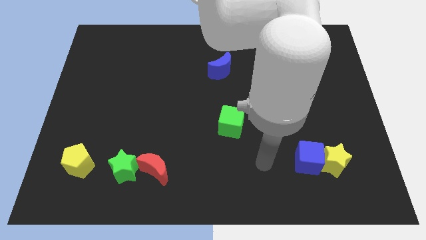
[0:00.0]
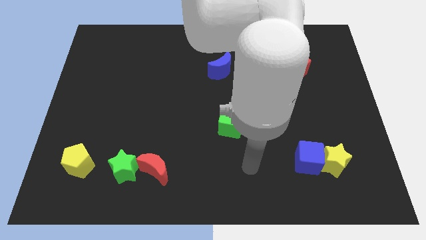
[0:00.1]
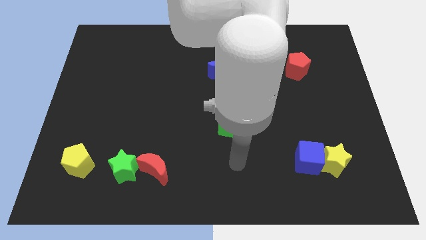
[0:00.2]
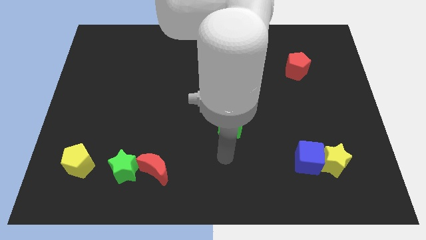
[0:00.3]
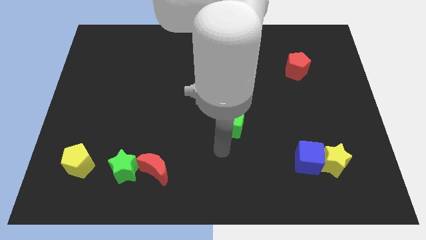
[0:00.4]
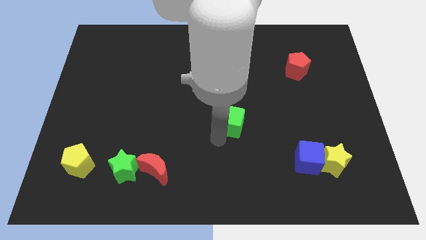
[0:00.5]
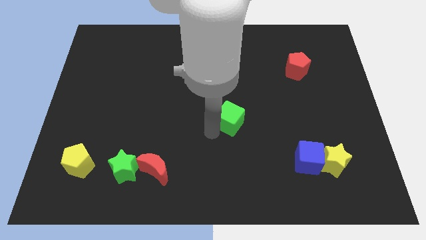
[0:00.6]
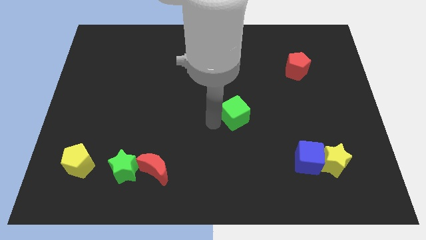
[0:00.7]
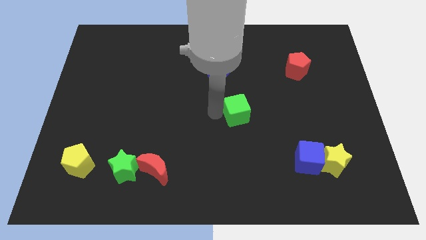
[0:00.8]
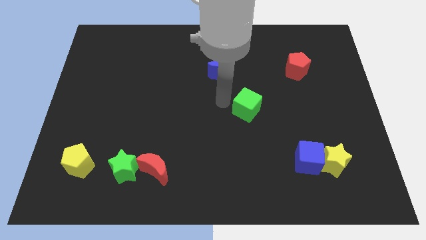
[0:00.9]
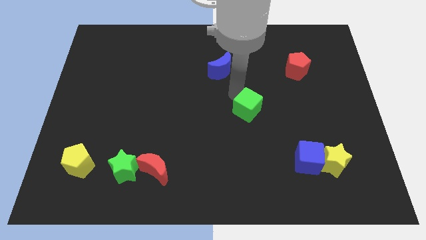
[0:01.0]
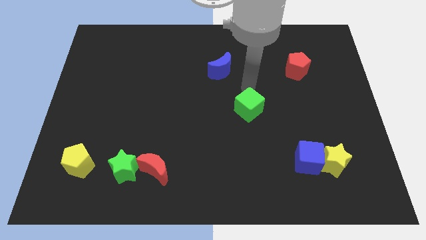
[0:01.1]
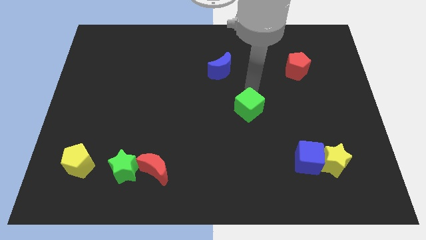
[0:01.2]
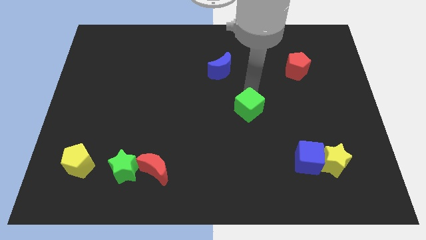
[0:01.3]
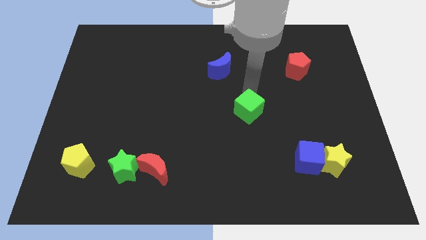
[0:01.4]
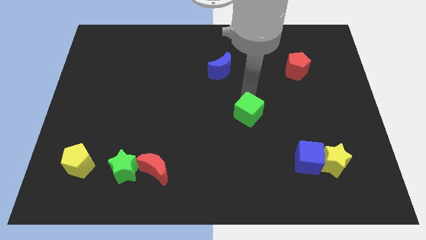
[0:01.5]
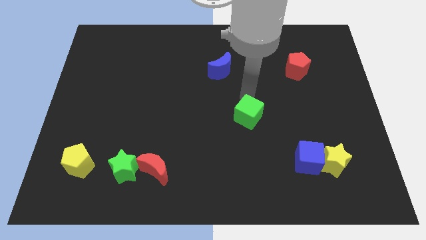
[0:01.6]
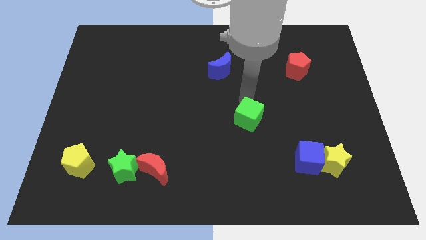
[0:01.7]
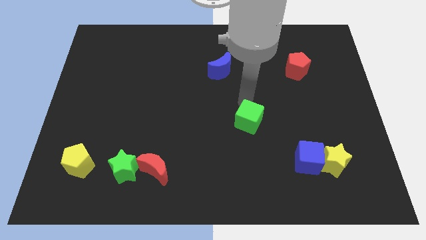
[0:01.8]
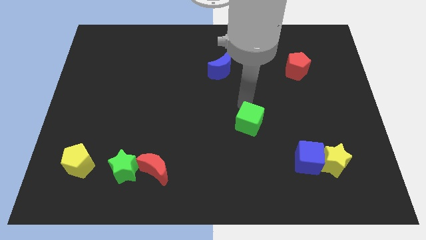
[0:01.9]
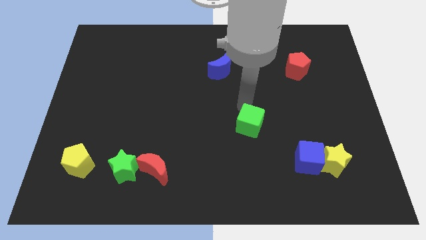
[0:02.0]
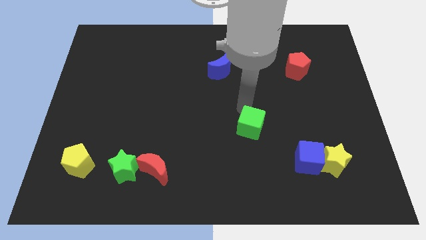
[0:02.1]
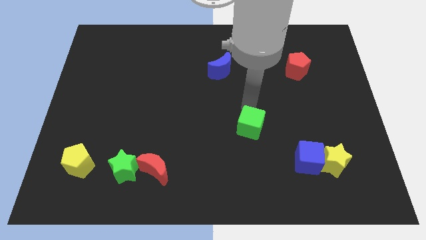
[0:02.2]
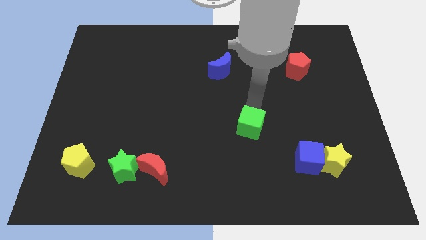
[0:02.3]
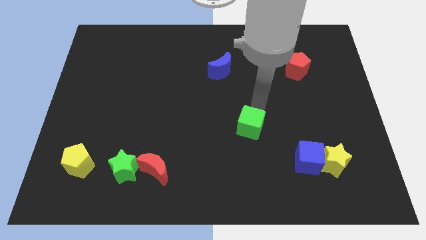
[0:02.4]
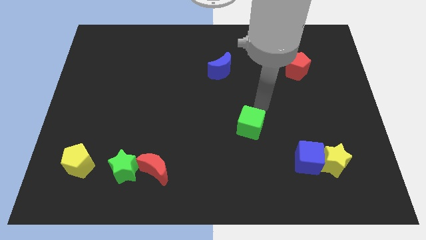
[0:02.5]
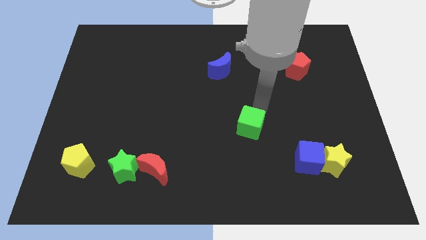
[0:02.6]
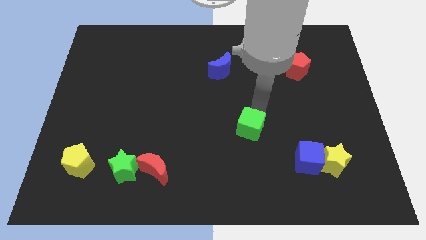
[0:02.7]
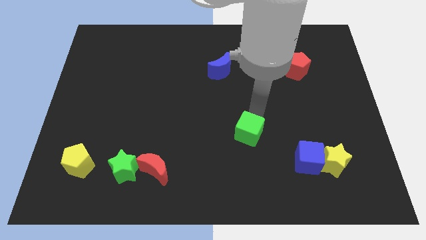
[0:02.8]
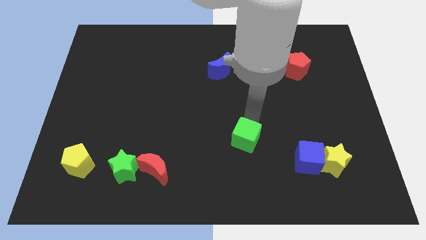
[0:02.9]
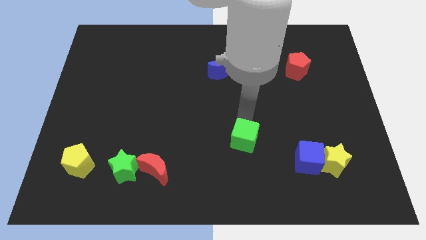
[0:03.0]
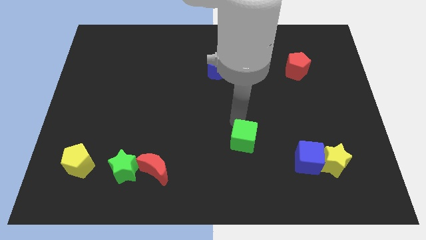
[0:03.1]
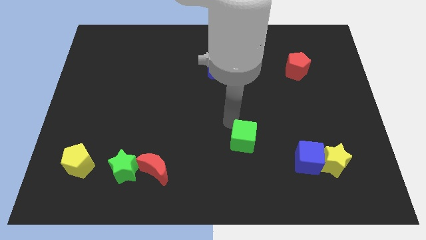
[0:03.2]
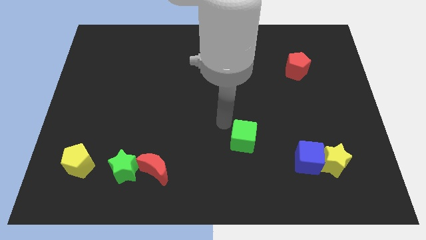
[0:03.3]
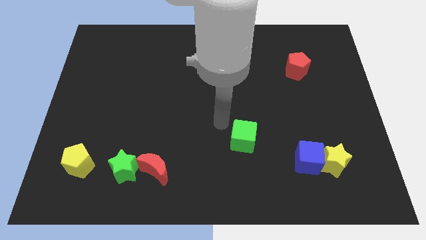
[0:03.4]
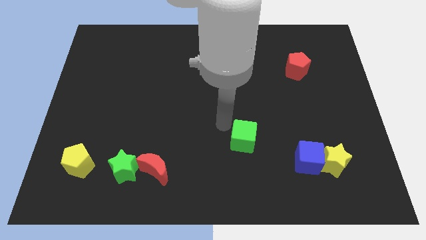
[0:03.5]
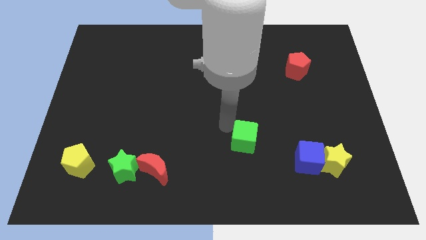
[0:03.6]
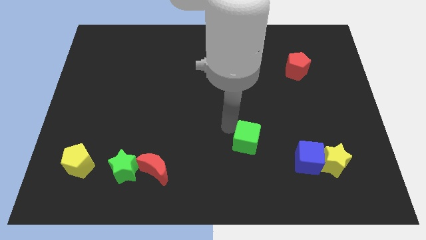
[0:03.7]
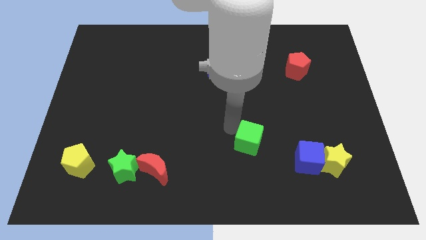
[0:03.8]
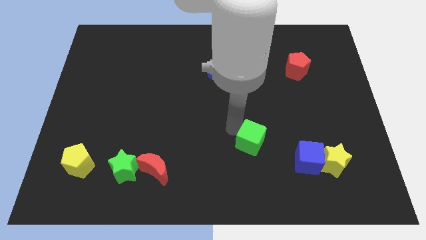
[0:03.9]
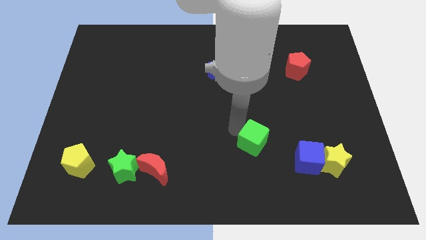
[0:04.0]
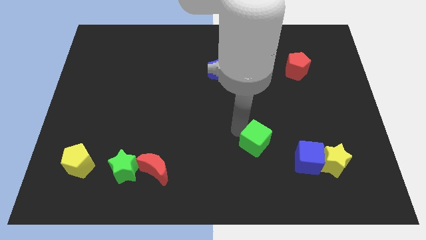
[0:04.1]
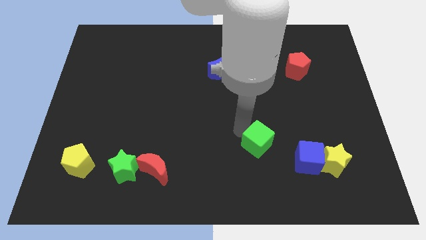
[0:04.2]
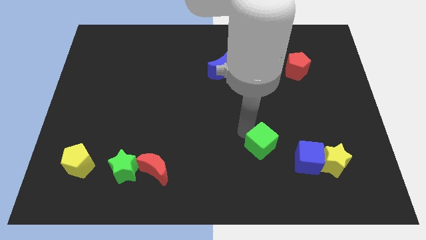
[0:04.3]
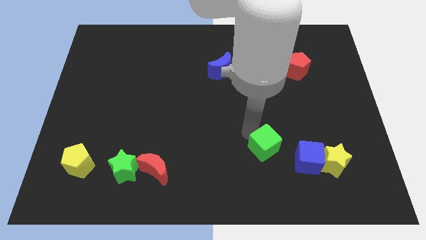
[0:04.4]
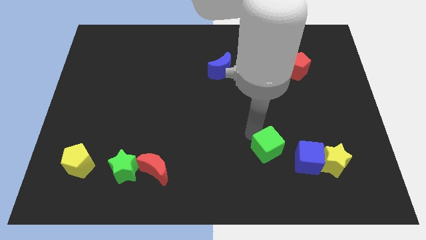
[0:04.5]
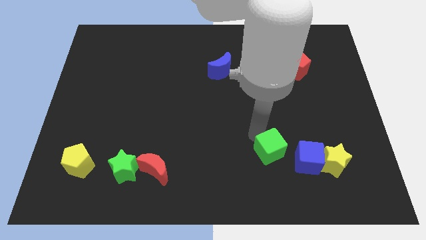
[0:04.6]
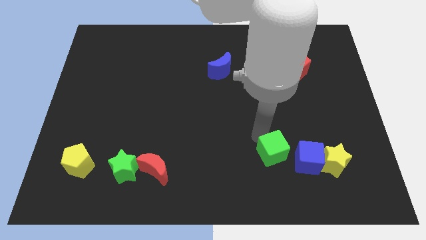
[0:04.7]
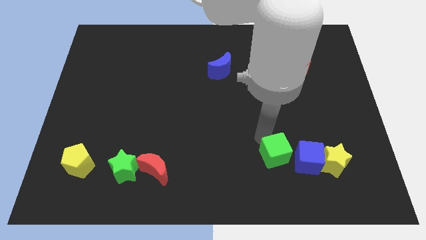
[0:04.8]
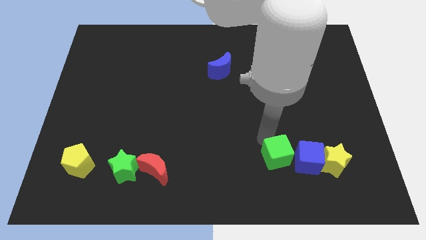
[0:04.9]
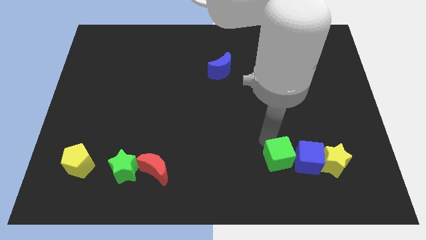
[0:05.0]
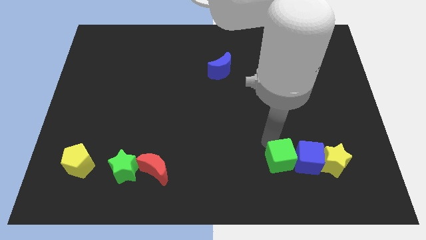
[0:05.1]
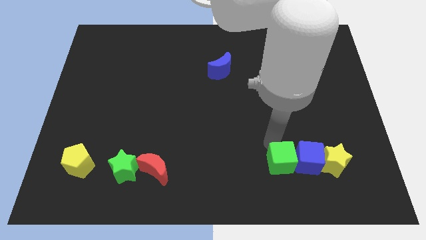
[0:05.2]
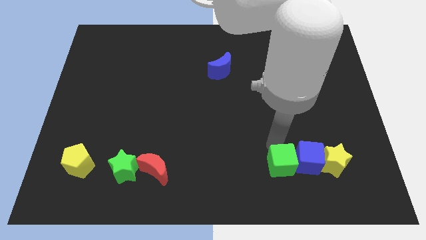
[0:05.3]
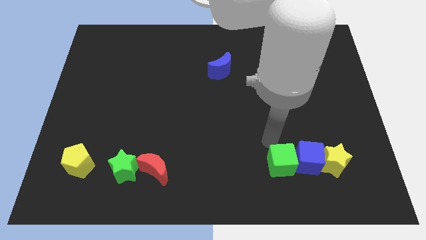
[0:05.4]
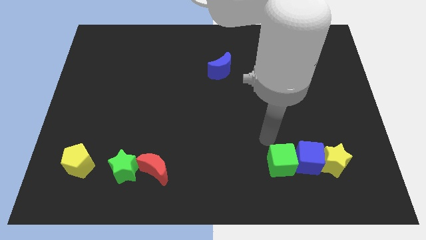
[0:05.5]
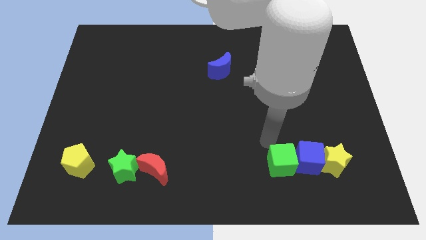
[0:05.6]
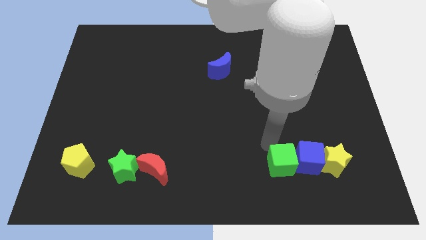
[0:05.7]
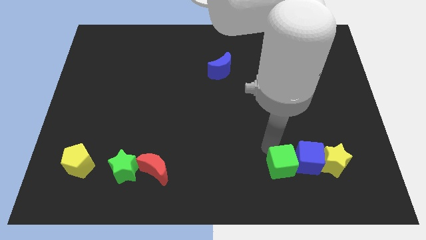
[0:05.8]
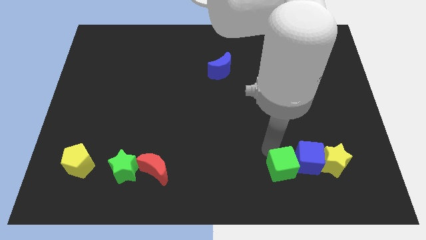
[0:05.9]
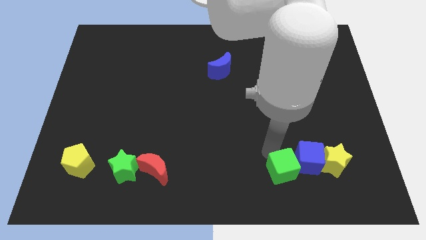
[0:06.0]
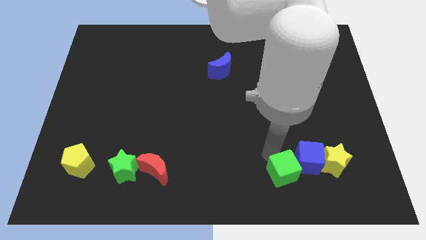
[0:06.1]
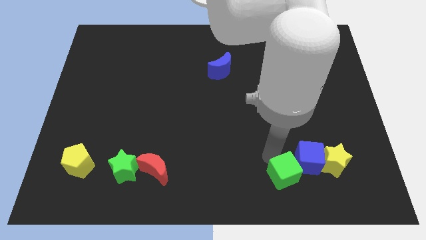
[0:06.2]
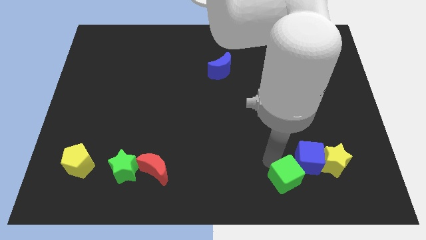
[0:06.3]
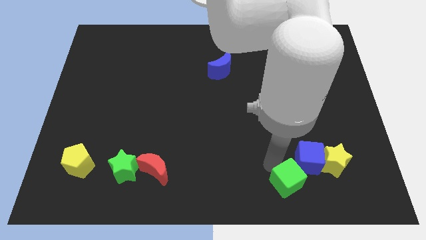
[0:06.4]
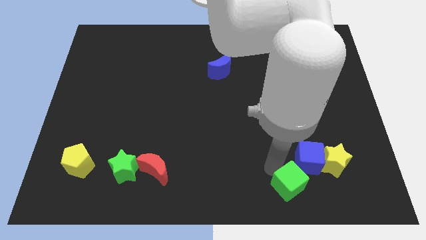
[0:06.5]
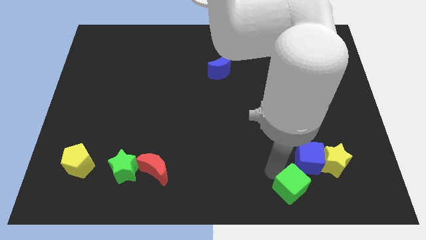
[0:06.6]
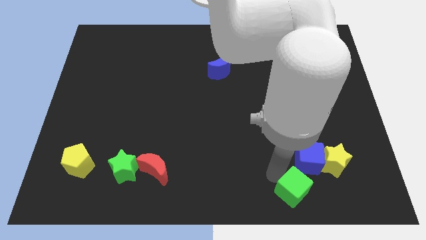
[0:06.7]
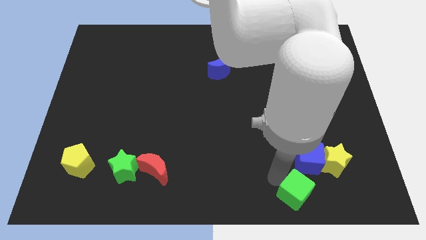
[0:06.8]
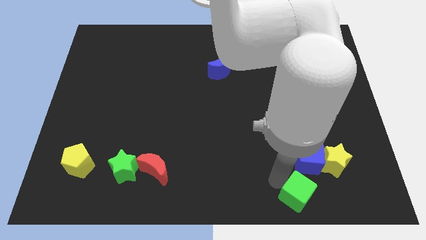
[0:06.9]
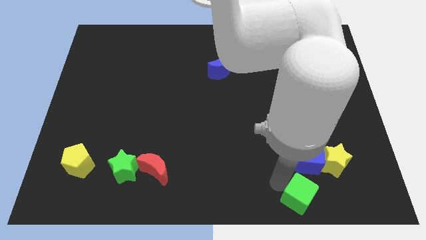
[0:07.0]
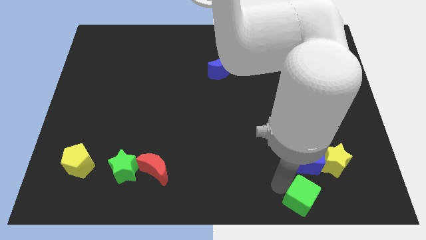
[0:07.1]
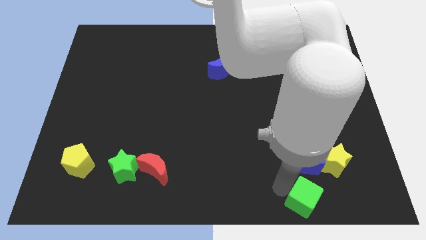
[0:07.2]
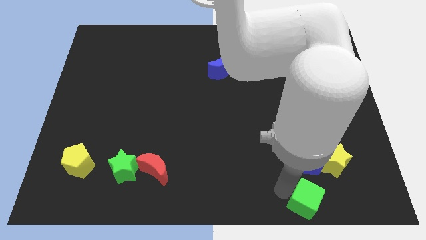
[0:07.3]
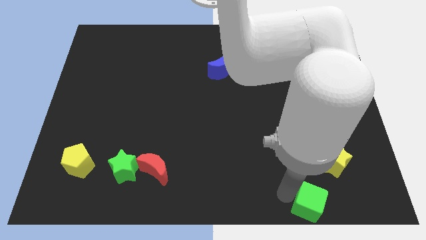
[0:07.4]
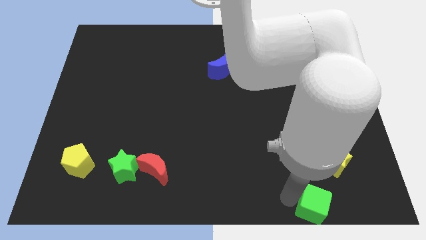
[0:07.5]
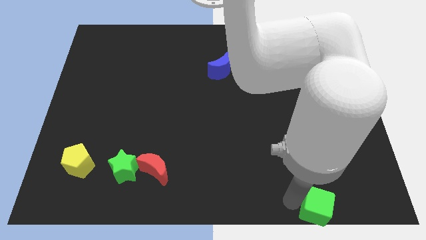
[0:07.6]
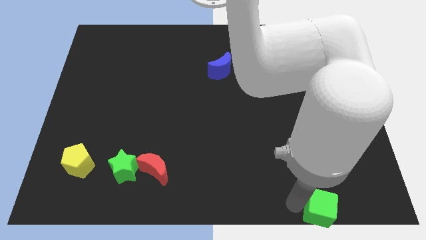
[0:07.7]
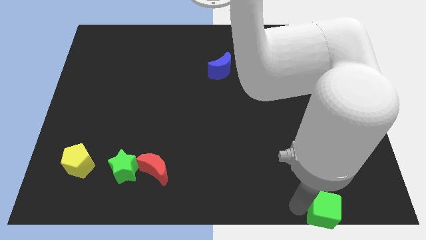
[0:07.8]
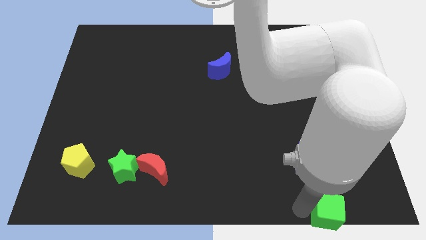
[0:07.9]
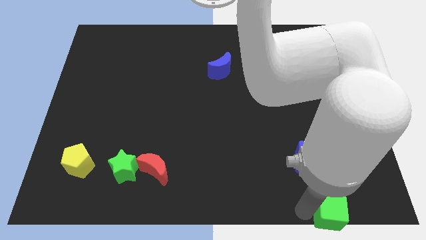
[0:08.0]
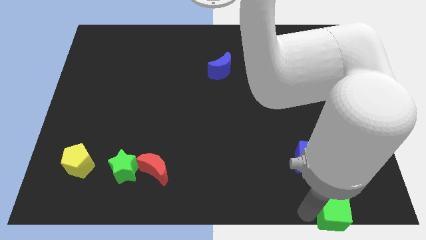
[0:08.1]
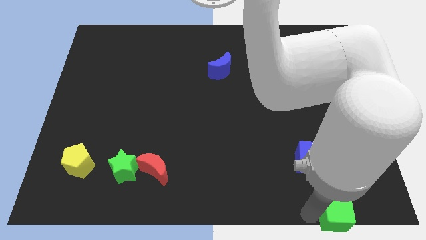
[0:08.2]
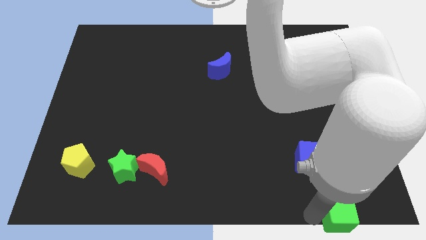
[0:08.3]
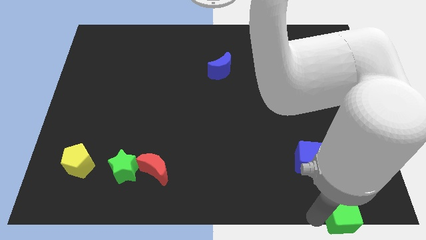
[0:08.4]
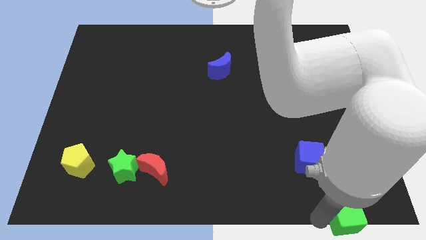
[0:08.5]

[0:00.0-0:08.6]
move the green cube to the lower right corner
